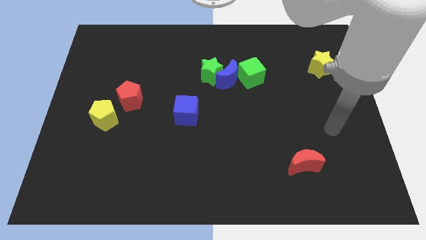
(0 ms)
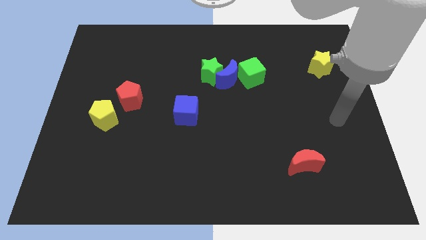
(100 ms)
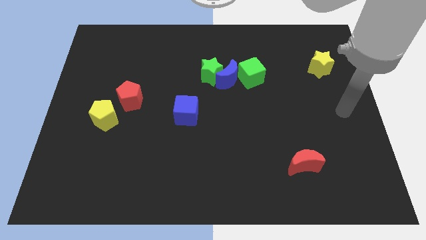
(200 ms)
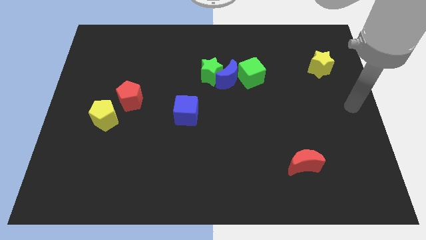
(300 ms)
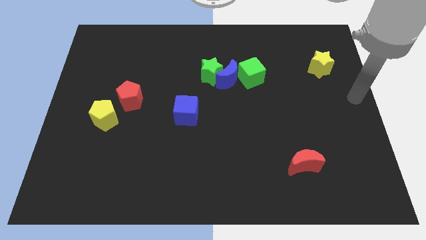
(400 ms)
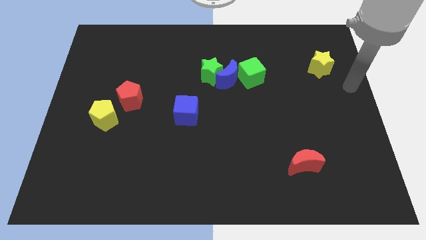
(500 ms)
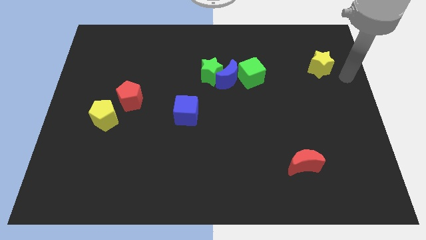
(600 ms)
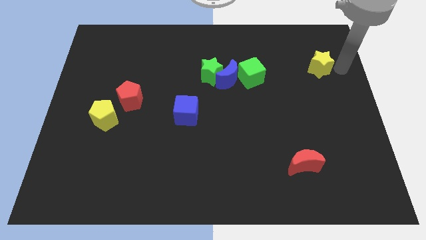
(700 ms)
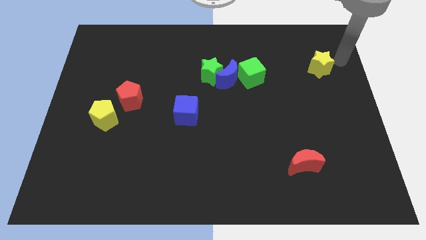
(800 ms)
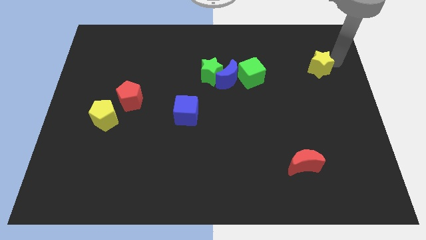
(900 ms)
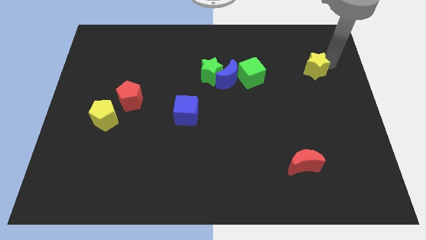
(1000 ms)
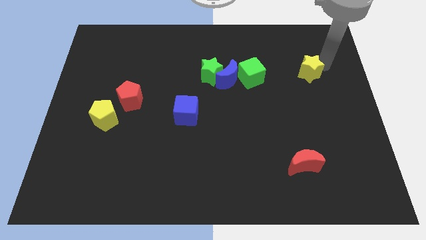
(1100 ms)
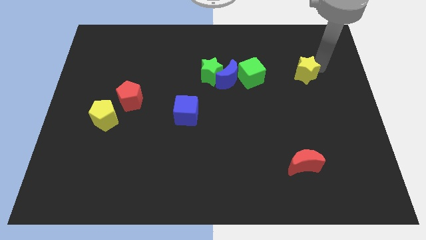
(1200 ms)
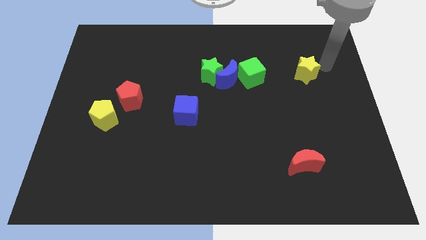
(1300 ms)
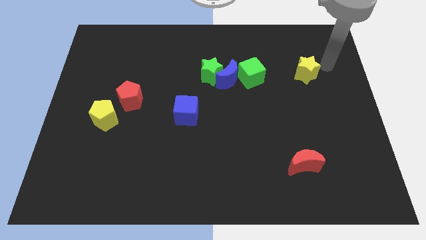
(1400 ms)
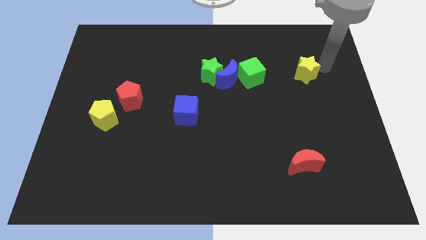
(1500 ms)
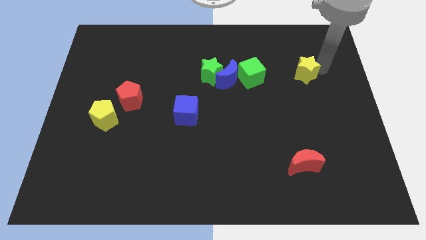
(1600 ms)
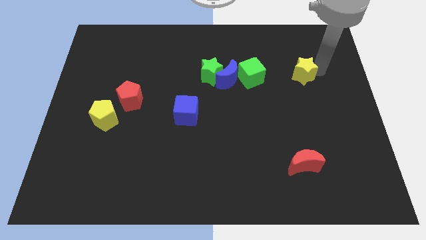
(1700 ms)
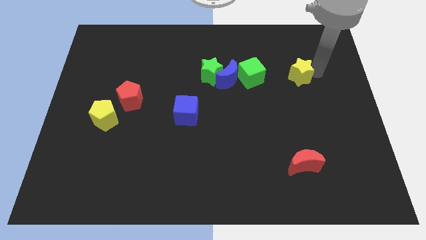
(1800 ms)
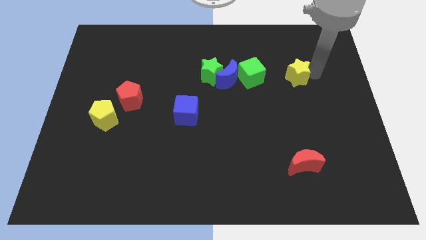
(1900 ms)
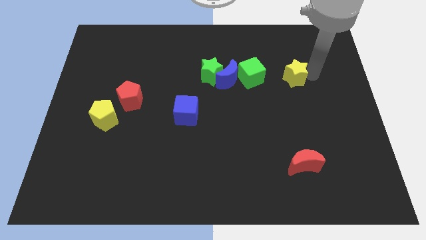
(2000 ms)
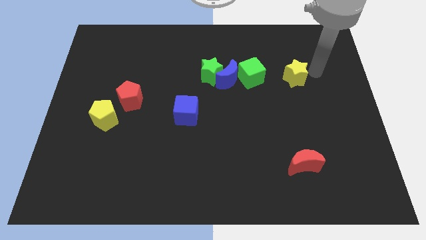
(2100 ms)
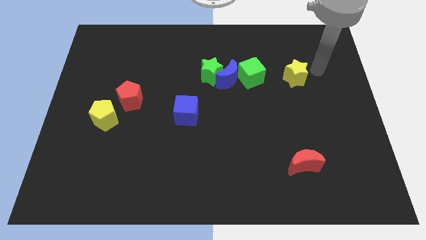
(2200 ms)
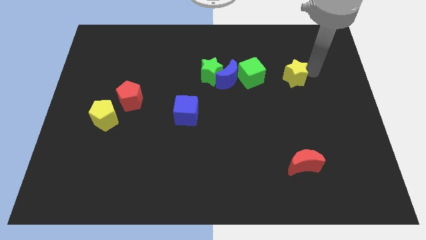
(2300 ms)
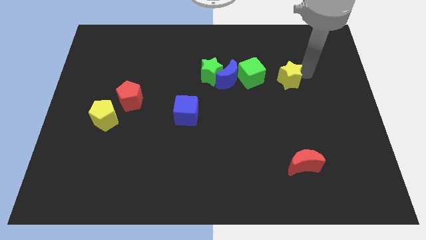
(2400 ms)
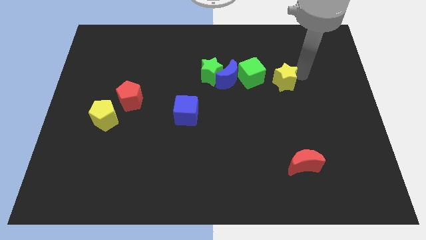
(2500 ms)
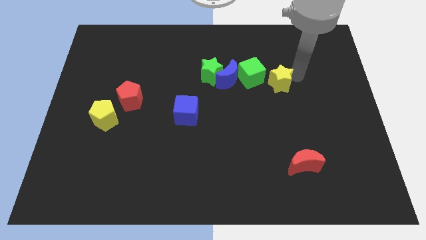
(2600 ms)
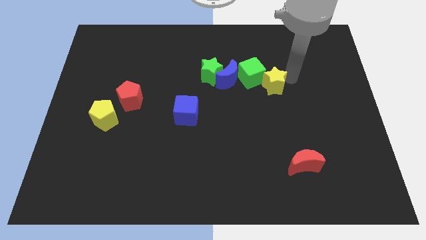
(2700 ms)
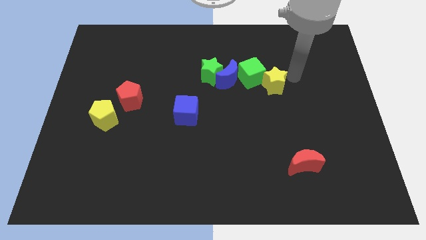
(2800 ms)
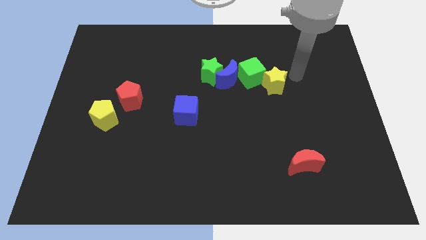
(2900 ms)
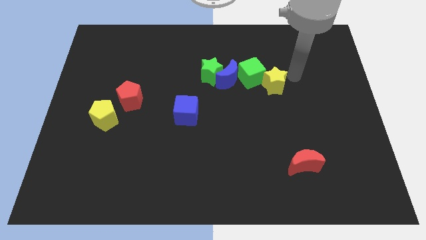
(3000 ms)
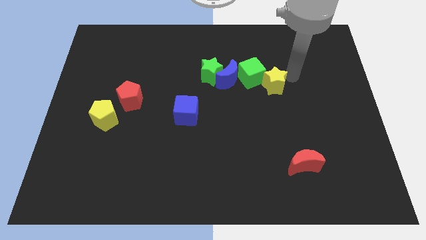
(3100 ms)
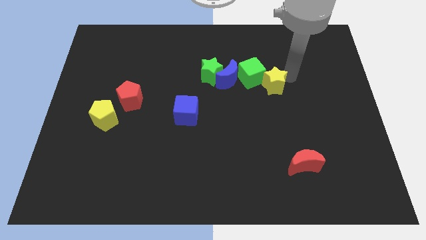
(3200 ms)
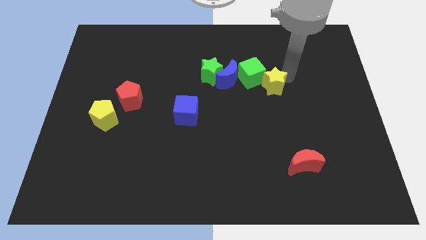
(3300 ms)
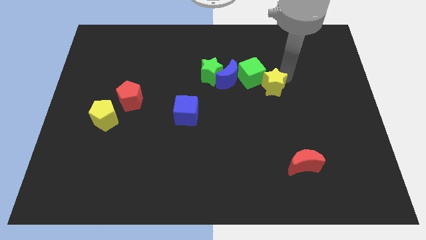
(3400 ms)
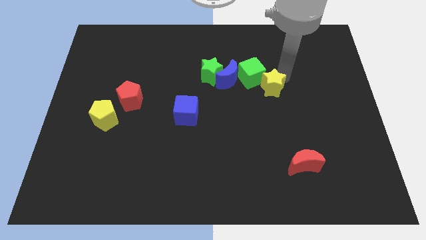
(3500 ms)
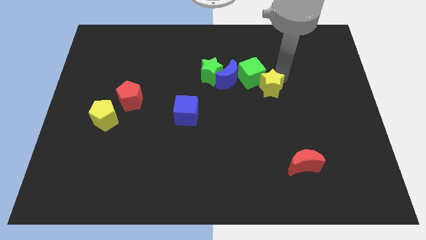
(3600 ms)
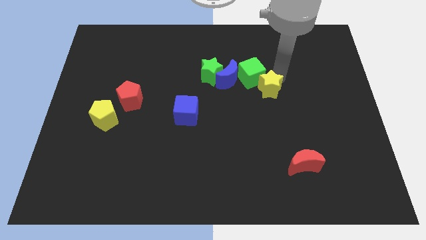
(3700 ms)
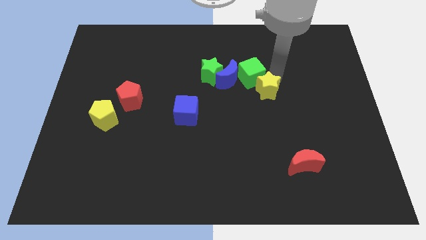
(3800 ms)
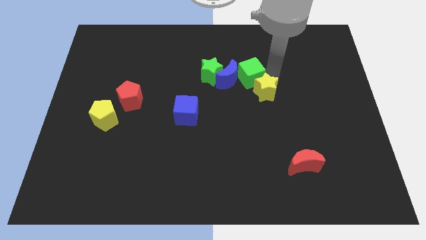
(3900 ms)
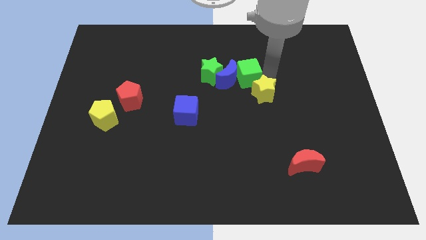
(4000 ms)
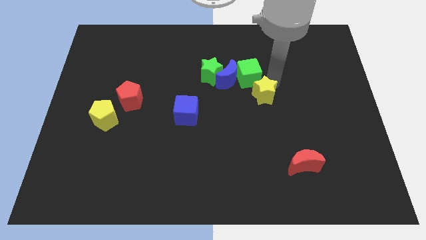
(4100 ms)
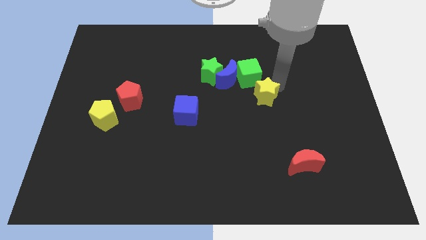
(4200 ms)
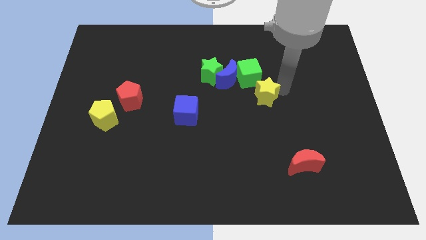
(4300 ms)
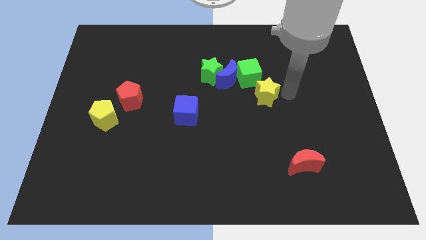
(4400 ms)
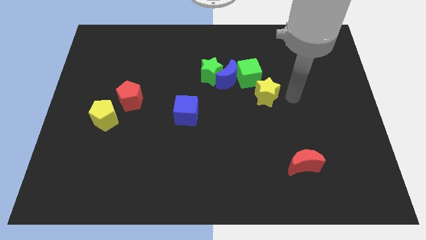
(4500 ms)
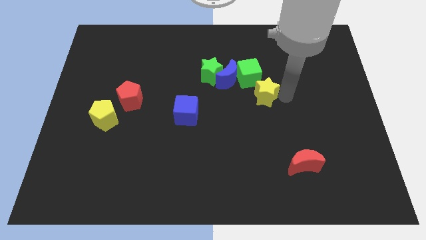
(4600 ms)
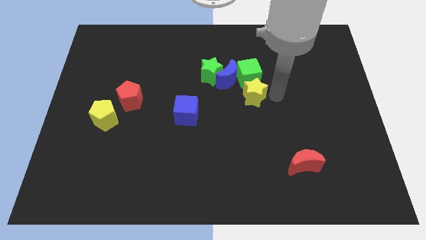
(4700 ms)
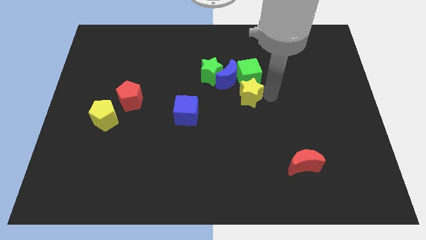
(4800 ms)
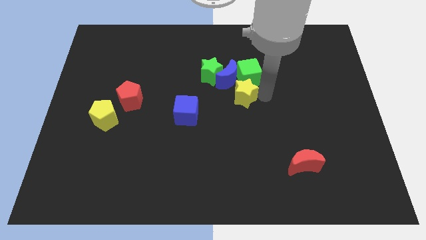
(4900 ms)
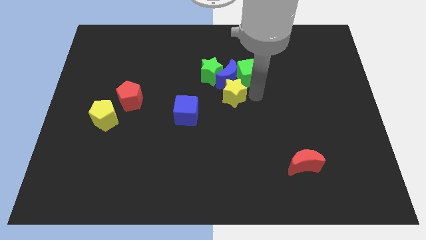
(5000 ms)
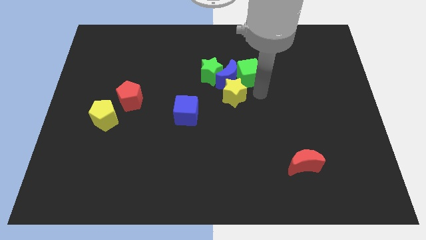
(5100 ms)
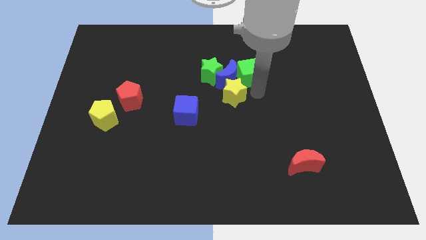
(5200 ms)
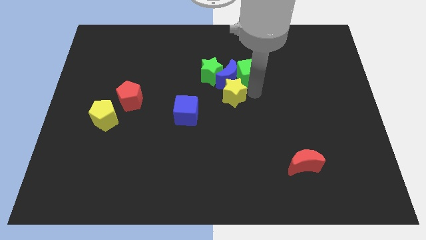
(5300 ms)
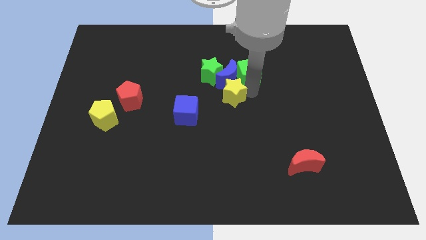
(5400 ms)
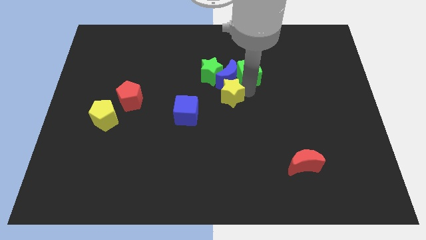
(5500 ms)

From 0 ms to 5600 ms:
move the yellow star to the top right of the blue cube

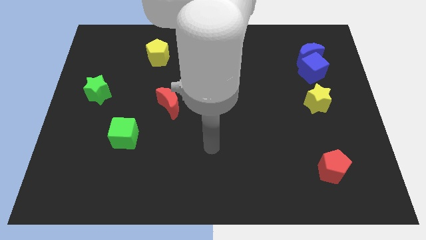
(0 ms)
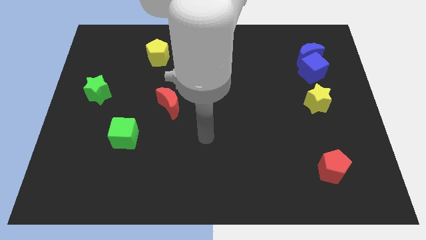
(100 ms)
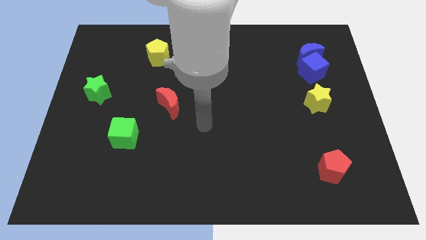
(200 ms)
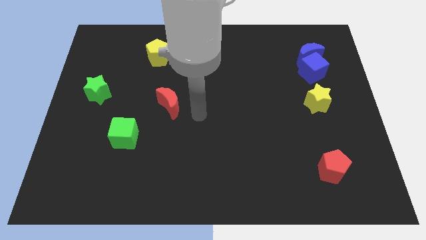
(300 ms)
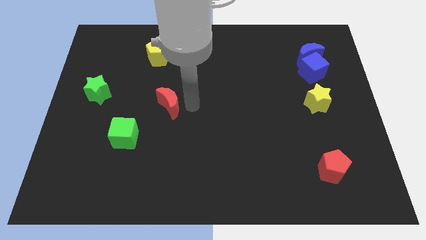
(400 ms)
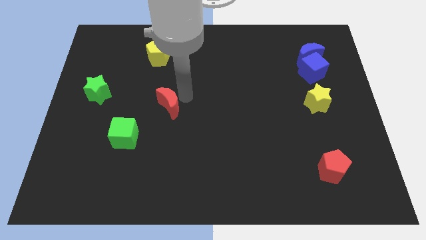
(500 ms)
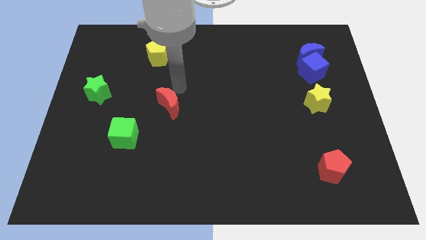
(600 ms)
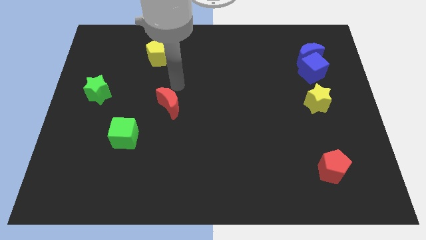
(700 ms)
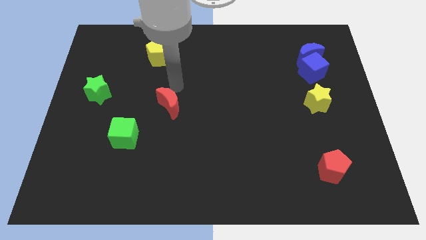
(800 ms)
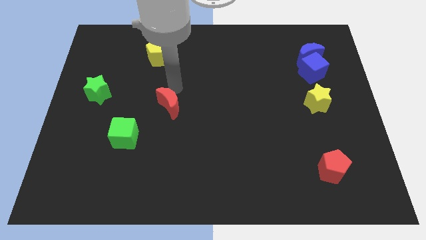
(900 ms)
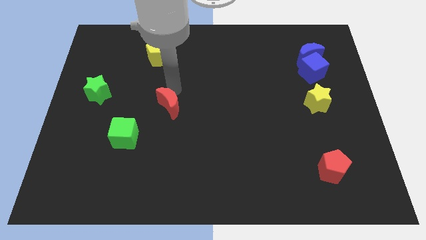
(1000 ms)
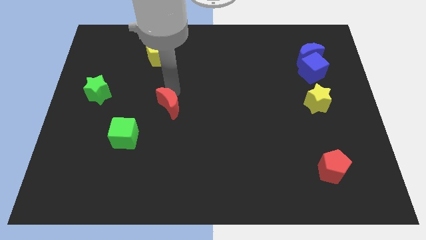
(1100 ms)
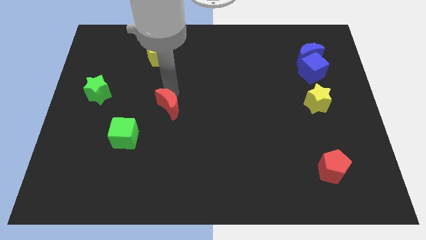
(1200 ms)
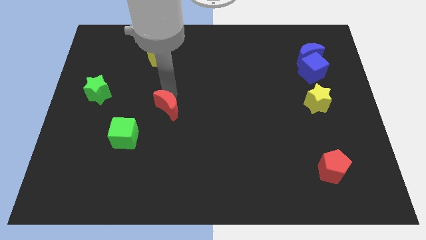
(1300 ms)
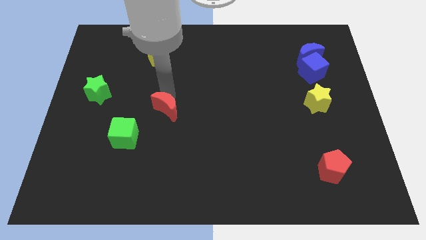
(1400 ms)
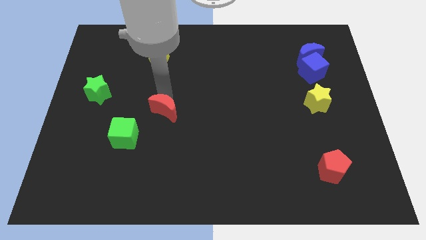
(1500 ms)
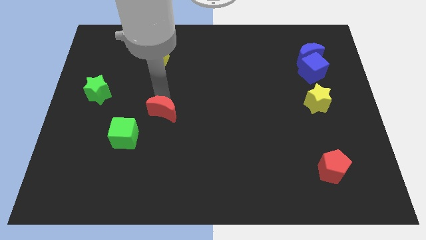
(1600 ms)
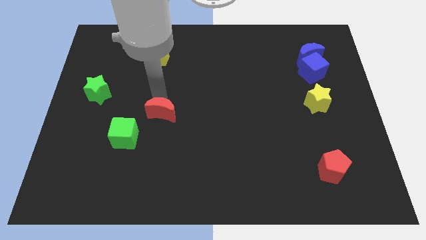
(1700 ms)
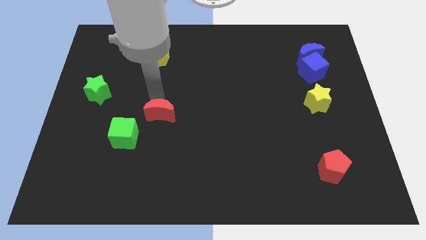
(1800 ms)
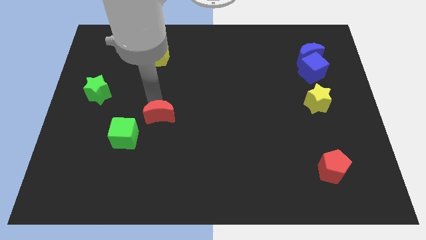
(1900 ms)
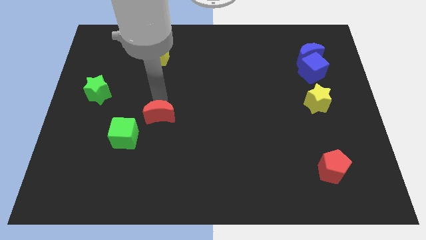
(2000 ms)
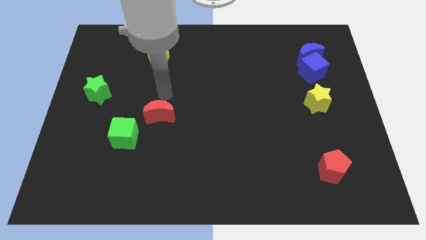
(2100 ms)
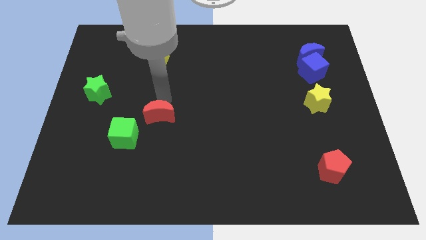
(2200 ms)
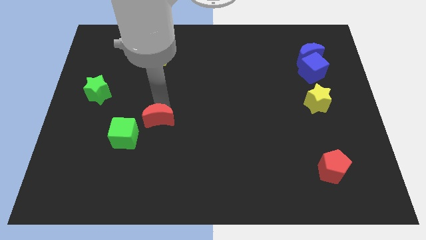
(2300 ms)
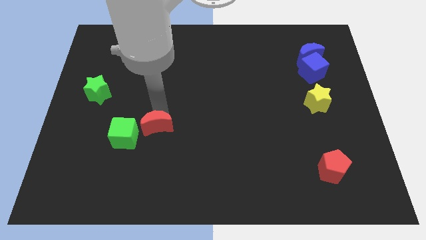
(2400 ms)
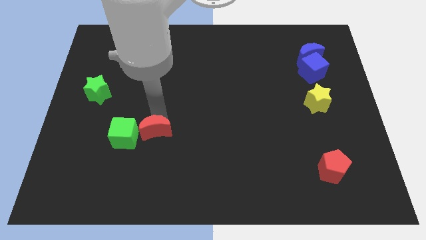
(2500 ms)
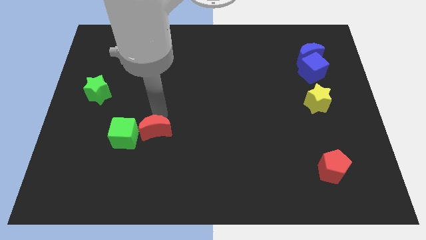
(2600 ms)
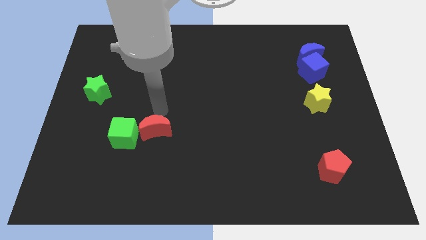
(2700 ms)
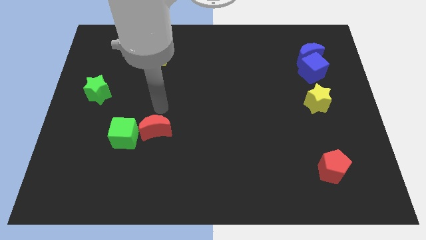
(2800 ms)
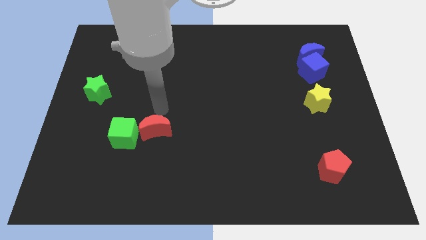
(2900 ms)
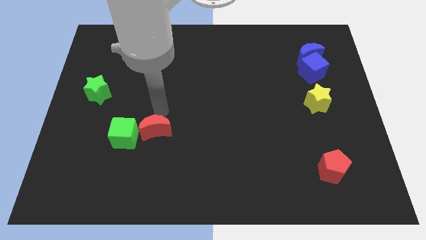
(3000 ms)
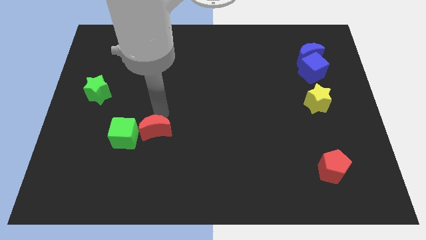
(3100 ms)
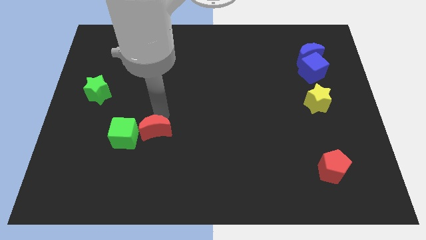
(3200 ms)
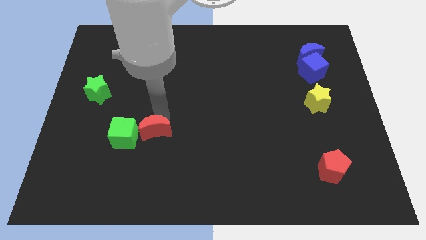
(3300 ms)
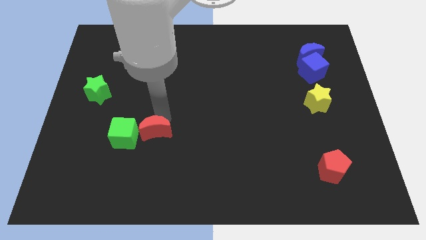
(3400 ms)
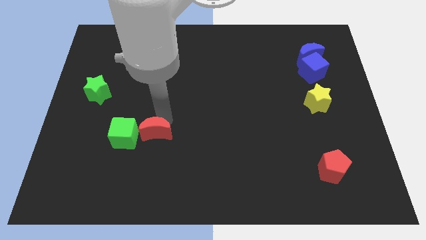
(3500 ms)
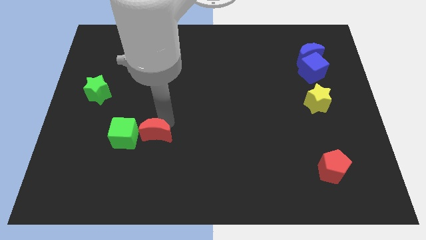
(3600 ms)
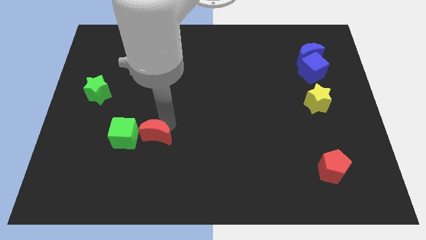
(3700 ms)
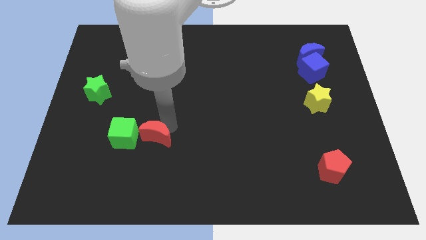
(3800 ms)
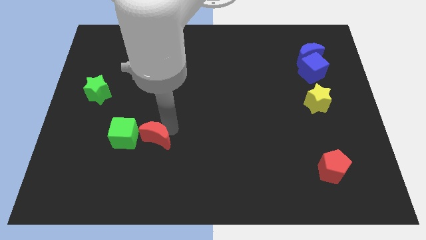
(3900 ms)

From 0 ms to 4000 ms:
slide the red moon diagonally down and to the right of the green cube
